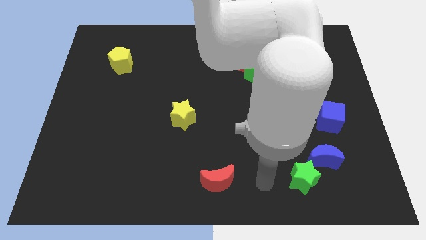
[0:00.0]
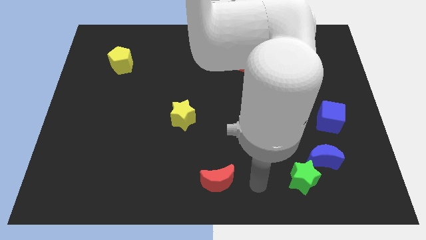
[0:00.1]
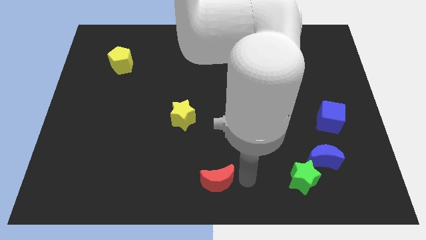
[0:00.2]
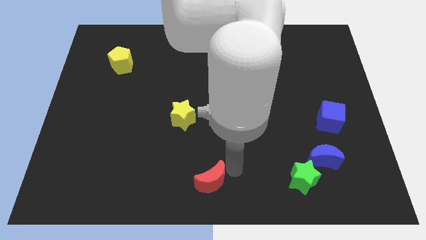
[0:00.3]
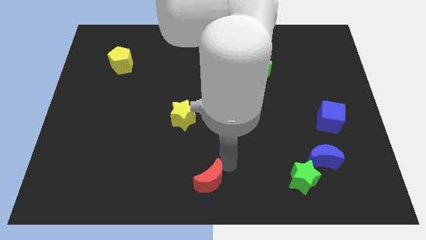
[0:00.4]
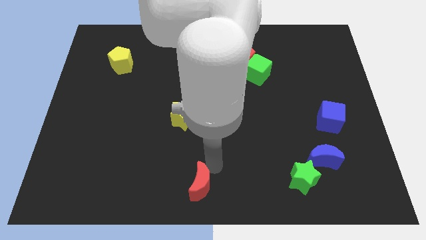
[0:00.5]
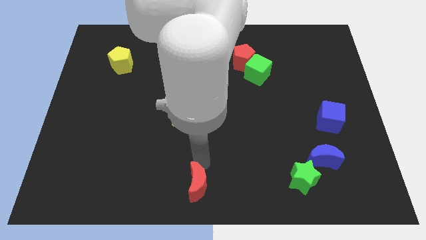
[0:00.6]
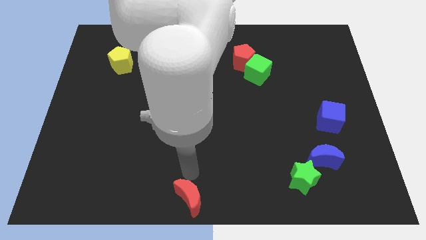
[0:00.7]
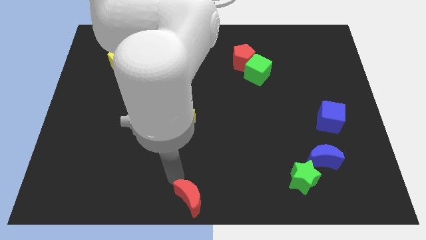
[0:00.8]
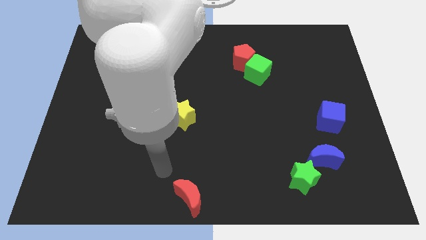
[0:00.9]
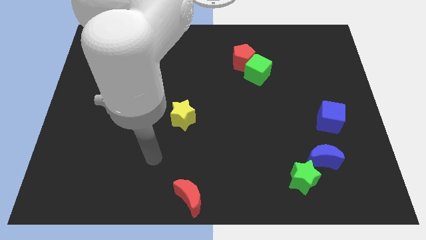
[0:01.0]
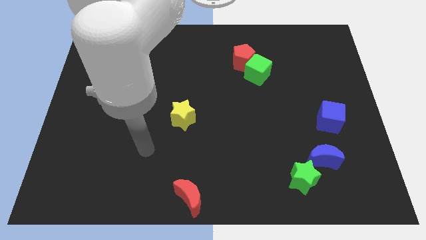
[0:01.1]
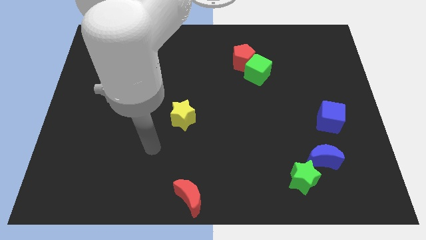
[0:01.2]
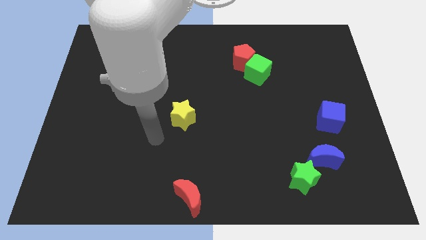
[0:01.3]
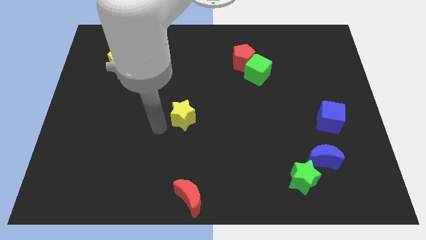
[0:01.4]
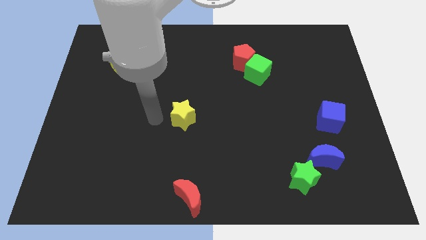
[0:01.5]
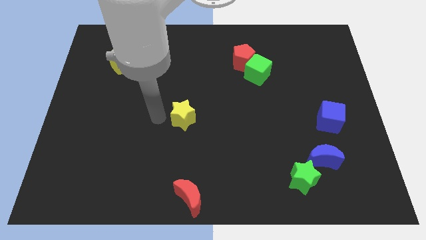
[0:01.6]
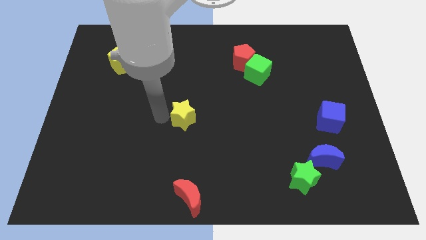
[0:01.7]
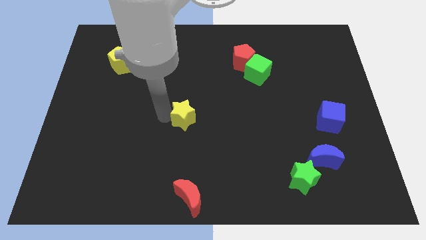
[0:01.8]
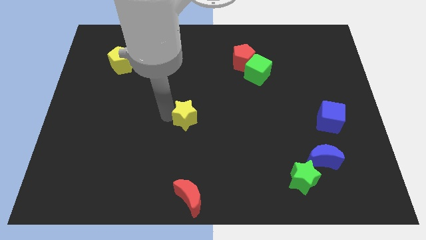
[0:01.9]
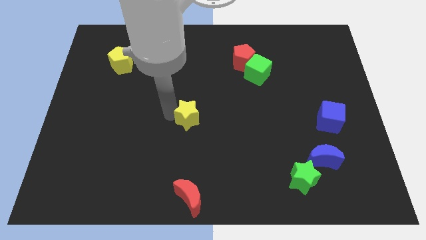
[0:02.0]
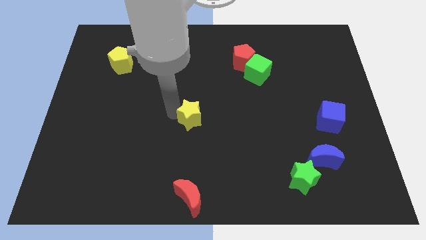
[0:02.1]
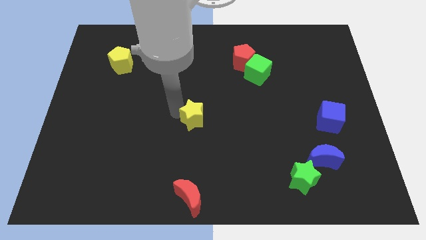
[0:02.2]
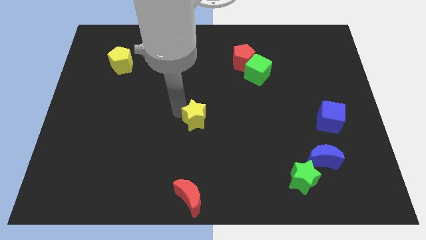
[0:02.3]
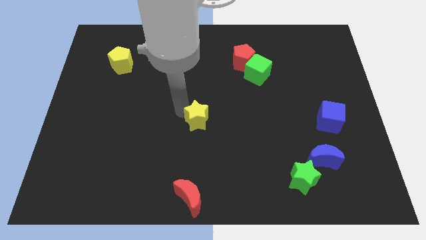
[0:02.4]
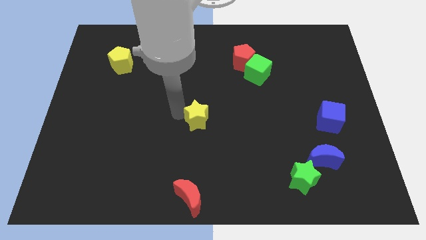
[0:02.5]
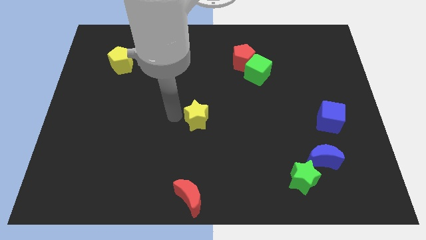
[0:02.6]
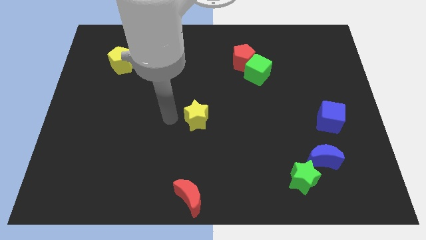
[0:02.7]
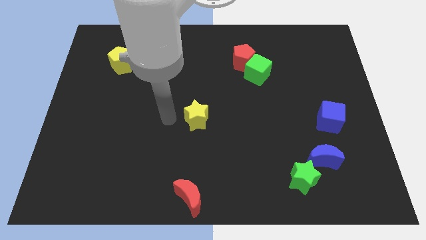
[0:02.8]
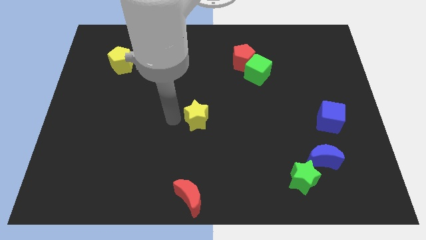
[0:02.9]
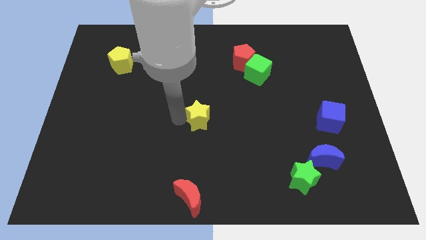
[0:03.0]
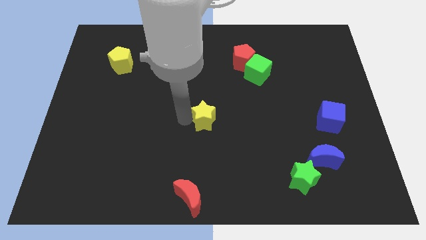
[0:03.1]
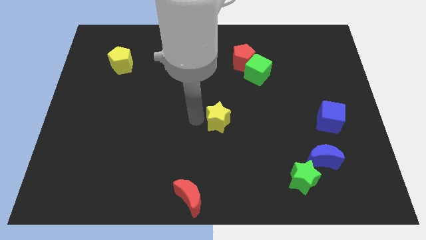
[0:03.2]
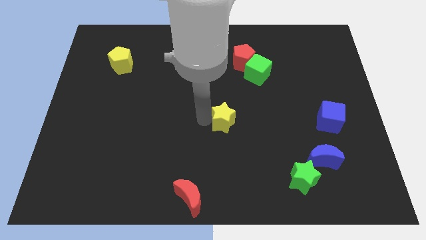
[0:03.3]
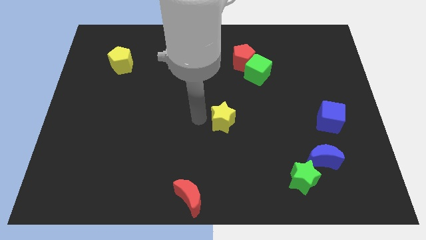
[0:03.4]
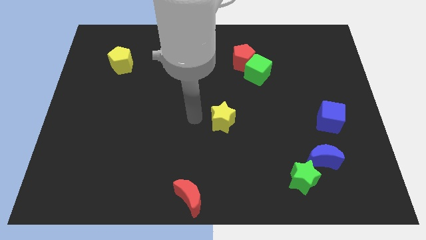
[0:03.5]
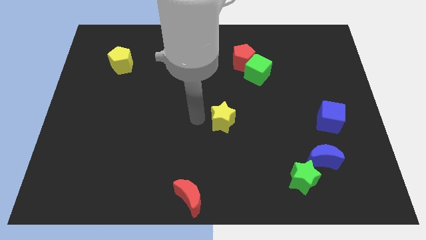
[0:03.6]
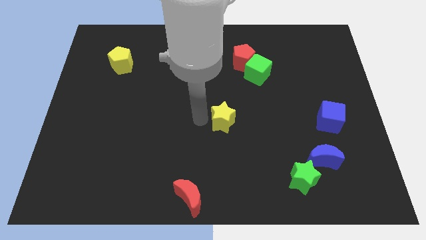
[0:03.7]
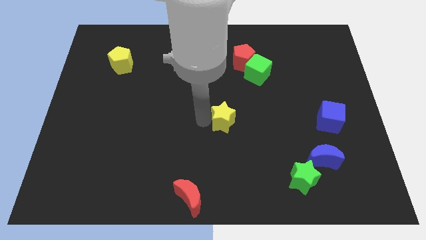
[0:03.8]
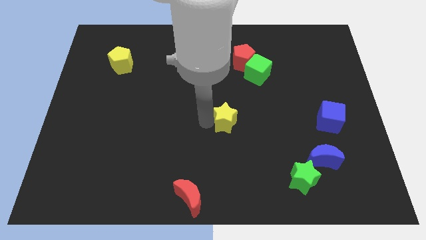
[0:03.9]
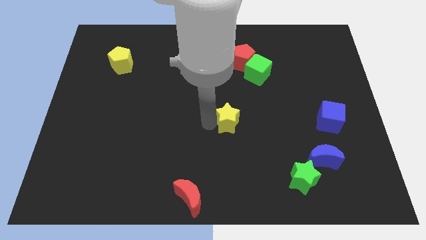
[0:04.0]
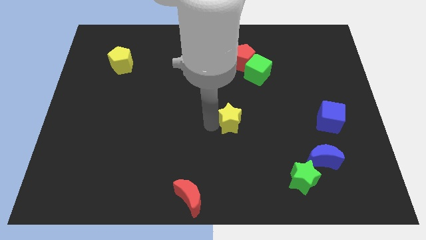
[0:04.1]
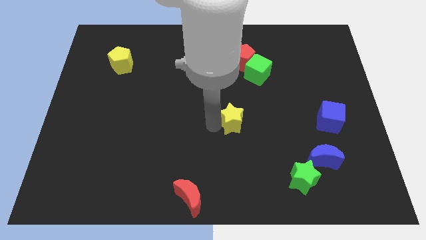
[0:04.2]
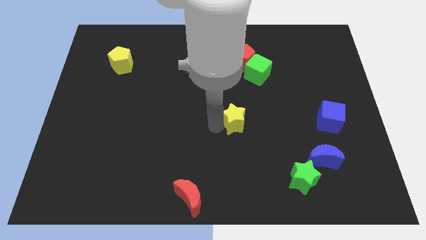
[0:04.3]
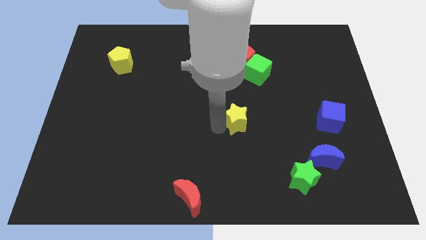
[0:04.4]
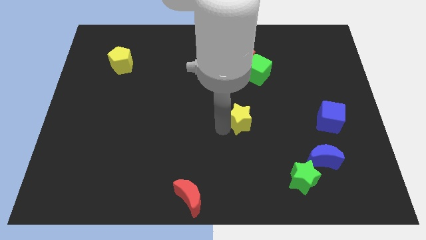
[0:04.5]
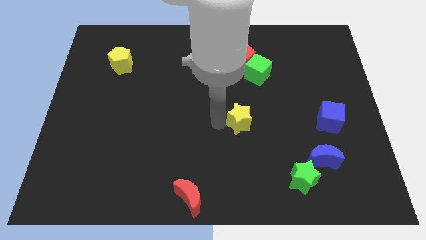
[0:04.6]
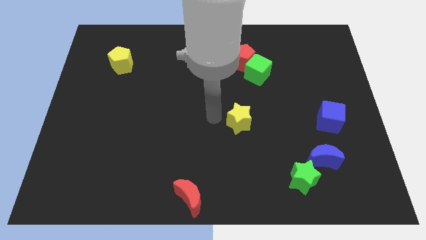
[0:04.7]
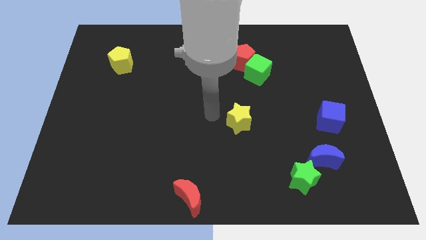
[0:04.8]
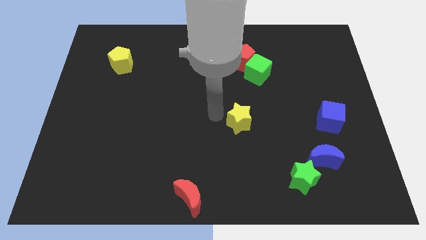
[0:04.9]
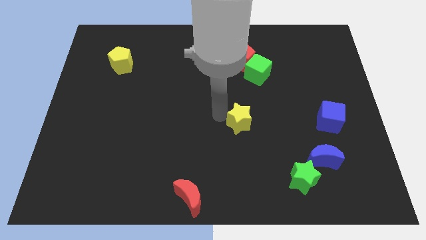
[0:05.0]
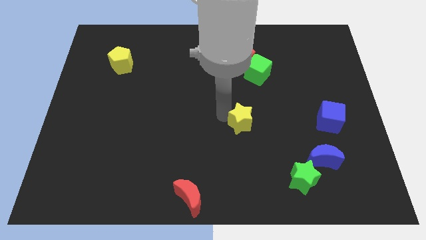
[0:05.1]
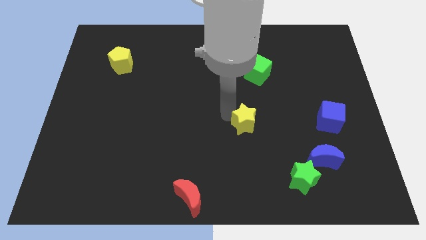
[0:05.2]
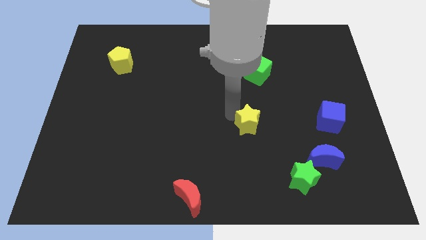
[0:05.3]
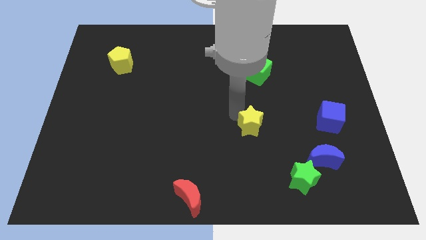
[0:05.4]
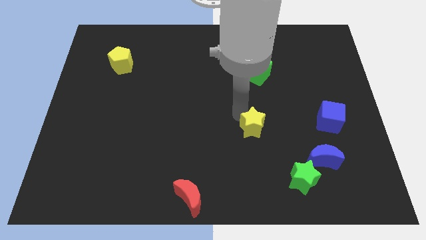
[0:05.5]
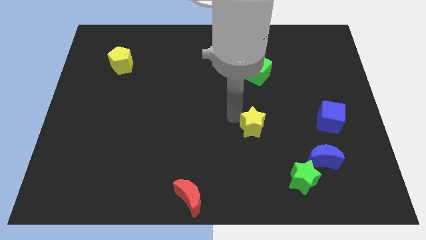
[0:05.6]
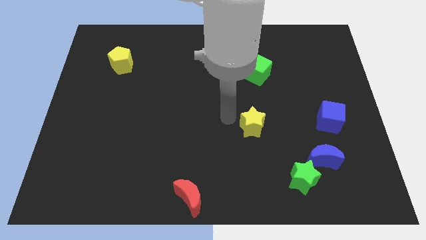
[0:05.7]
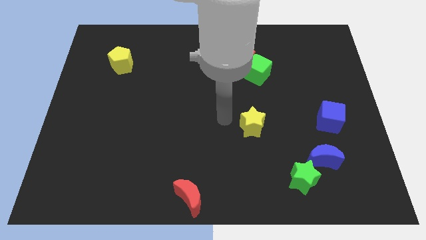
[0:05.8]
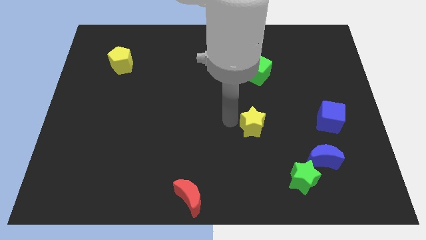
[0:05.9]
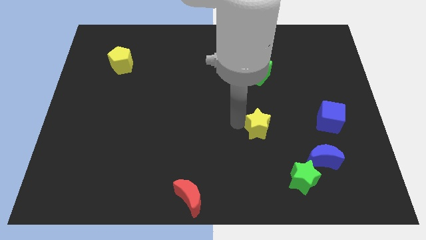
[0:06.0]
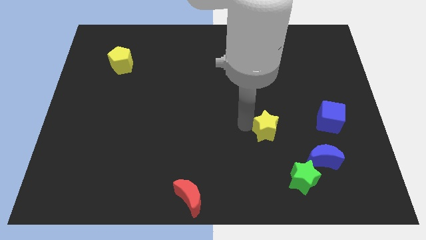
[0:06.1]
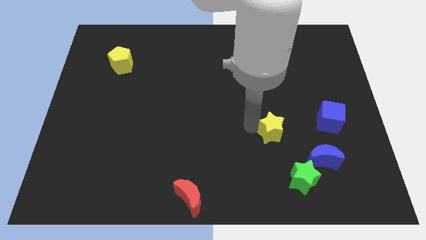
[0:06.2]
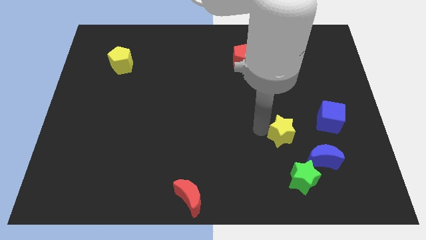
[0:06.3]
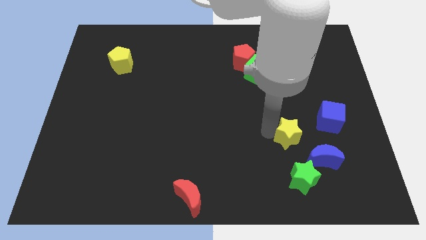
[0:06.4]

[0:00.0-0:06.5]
push the yellow star to the bottom left of the blue cube
